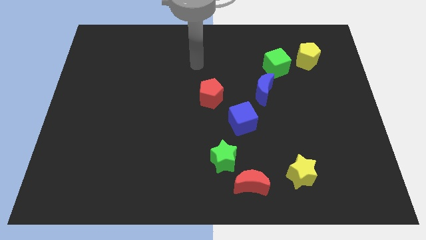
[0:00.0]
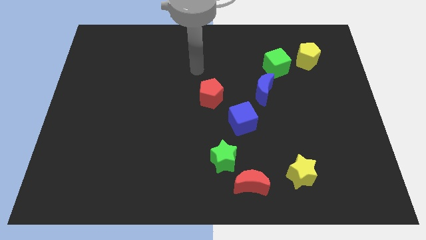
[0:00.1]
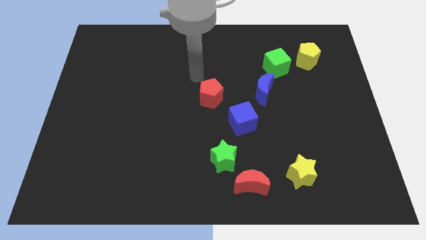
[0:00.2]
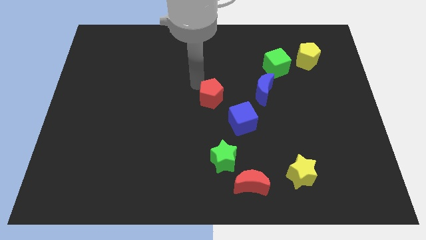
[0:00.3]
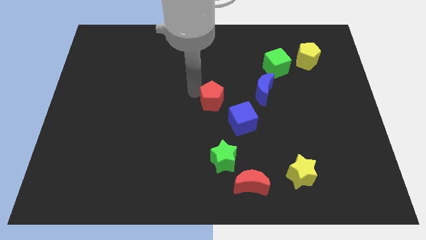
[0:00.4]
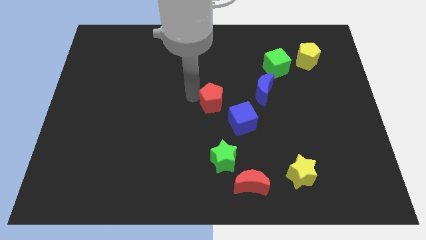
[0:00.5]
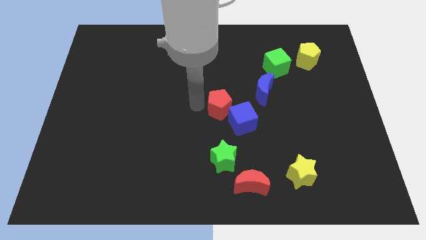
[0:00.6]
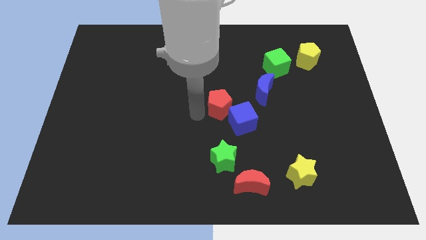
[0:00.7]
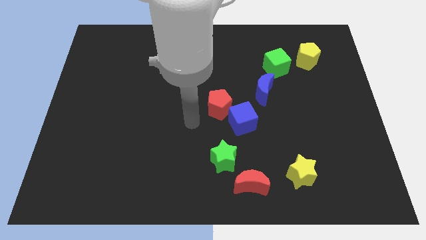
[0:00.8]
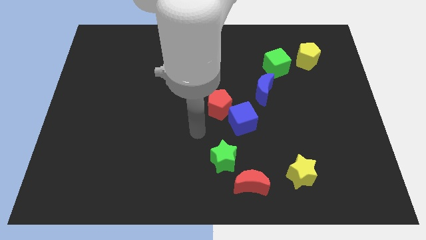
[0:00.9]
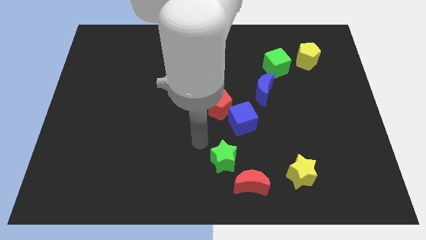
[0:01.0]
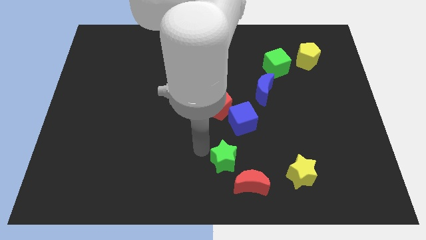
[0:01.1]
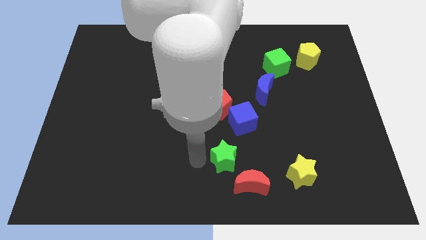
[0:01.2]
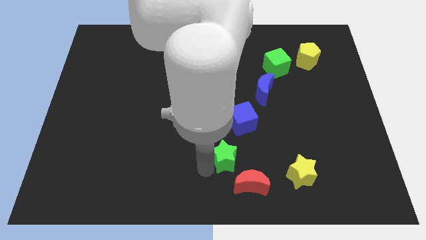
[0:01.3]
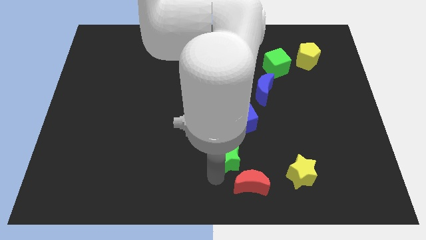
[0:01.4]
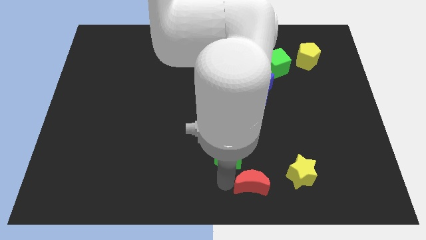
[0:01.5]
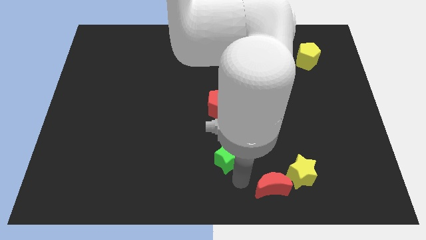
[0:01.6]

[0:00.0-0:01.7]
separate the green star from the red moon

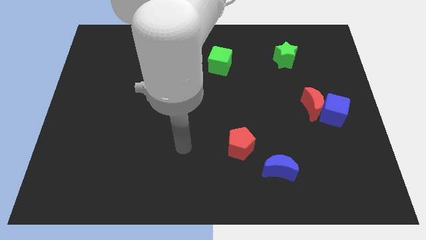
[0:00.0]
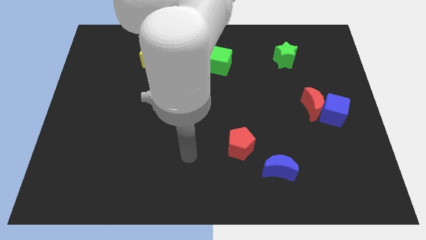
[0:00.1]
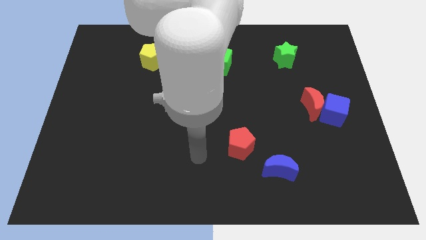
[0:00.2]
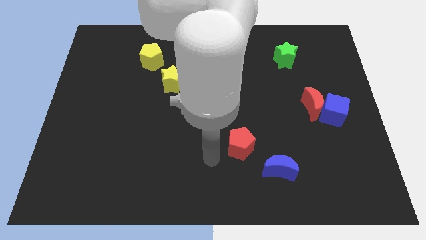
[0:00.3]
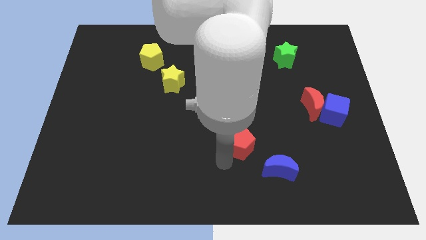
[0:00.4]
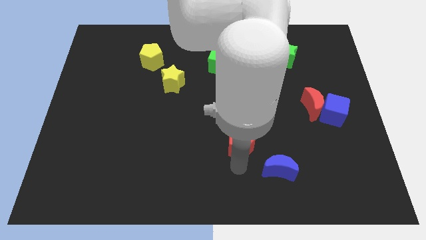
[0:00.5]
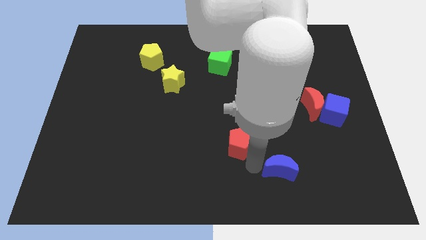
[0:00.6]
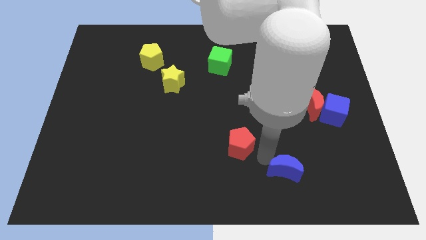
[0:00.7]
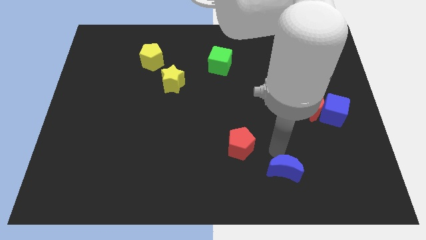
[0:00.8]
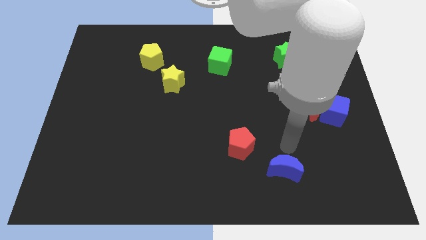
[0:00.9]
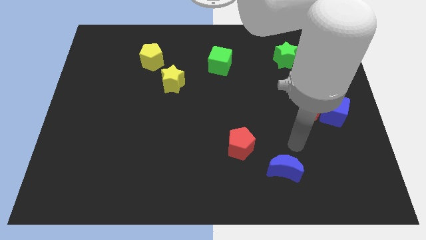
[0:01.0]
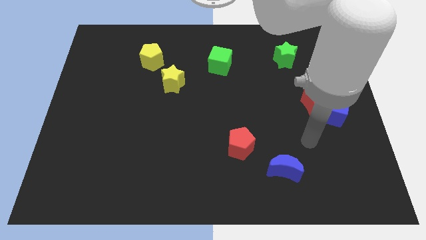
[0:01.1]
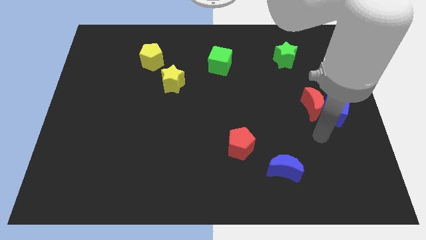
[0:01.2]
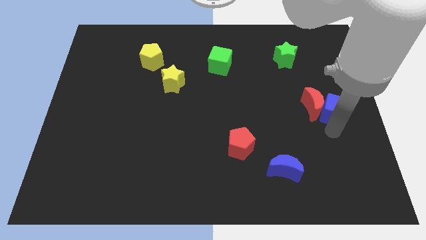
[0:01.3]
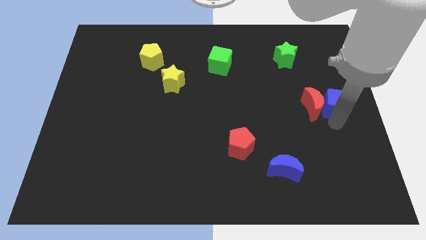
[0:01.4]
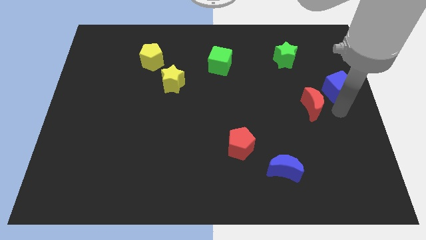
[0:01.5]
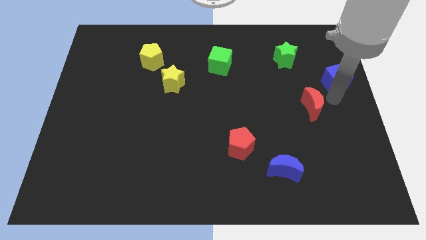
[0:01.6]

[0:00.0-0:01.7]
separate the red moon from the blue cube

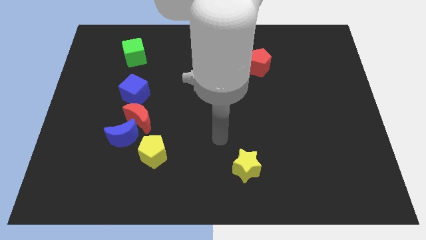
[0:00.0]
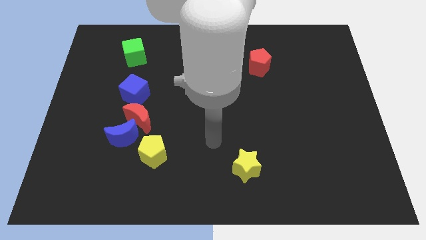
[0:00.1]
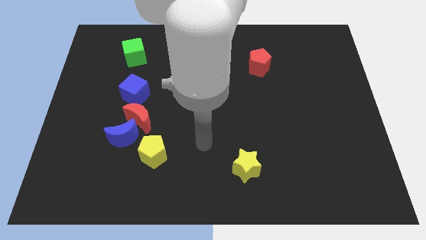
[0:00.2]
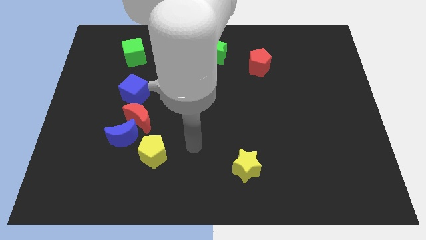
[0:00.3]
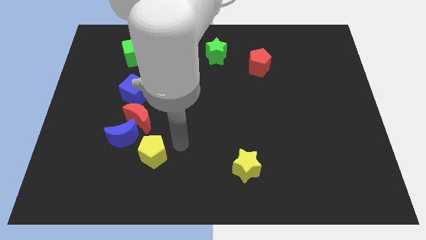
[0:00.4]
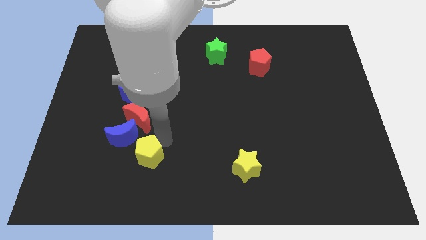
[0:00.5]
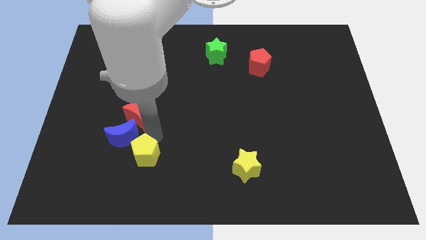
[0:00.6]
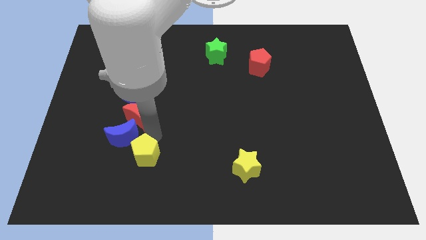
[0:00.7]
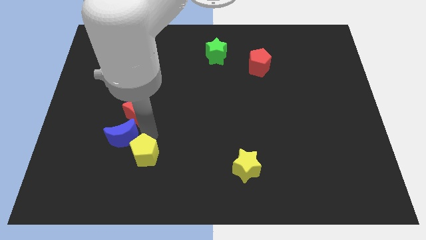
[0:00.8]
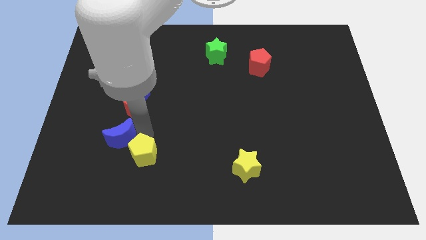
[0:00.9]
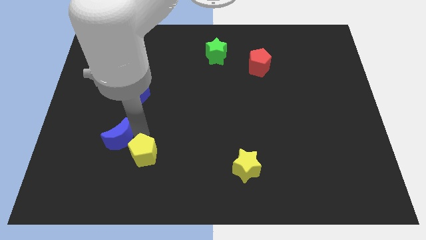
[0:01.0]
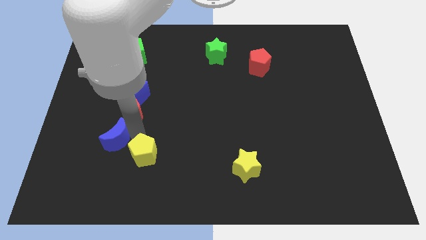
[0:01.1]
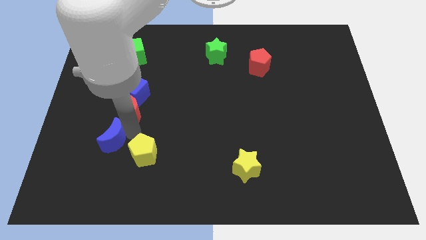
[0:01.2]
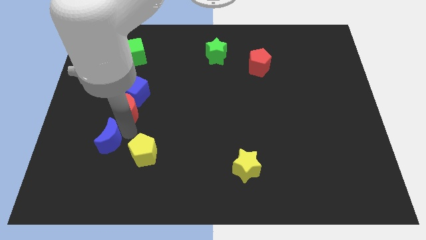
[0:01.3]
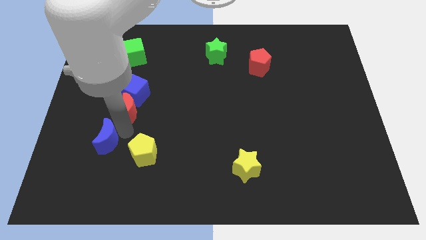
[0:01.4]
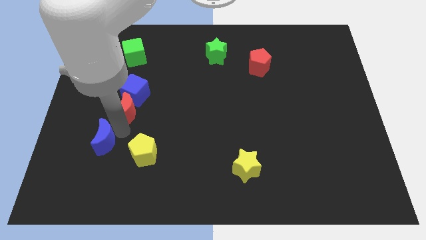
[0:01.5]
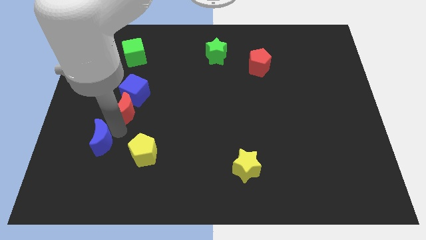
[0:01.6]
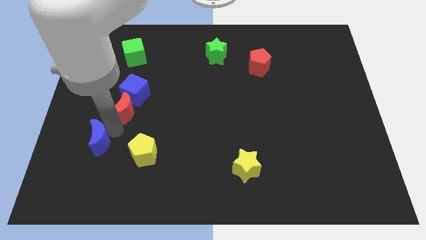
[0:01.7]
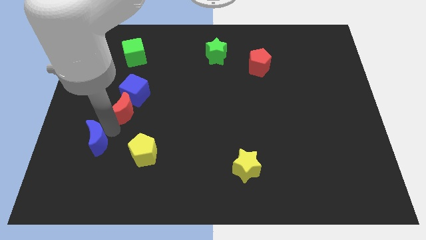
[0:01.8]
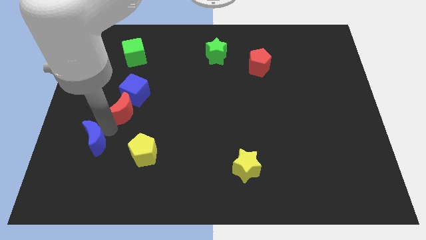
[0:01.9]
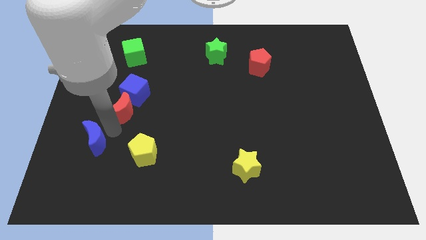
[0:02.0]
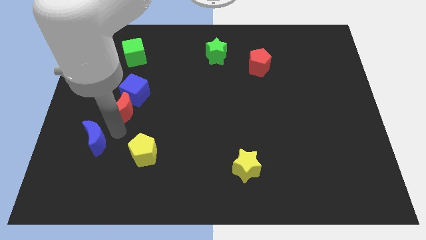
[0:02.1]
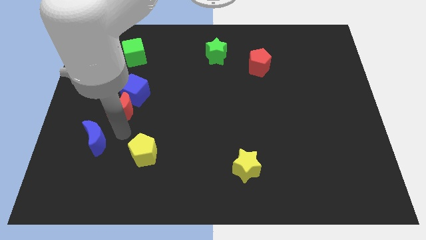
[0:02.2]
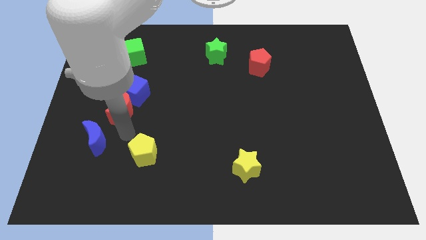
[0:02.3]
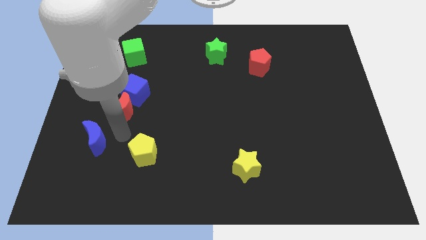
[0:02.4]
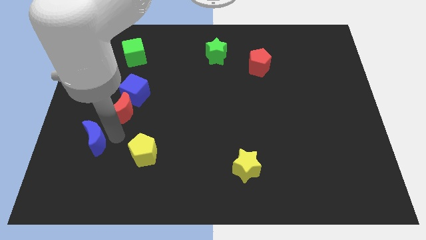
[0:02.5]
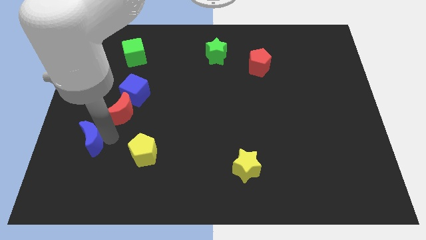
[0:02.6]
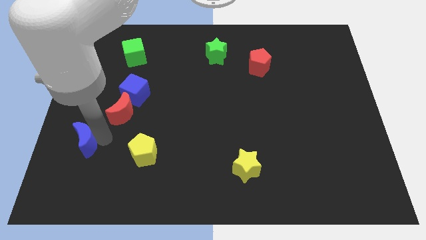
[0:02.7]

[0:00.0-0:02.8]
move the blue moon away from the red moon and yellow pentagon

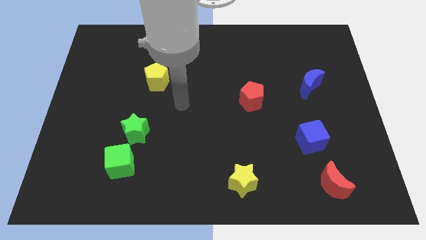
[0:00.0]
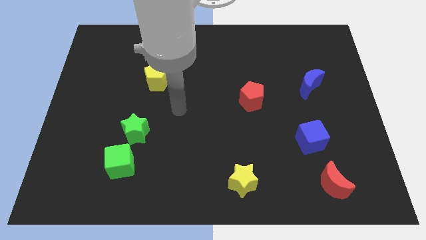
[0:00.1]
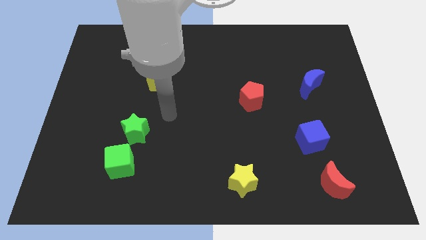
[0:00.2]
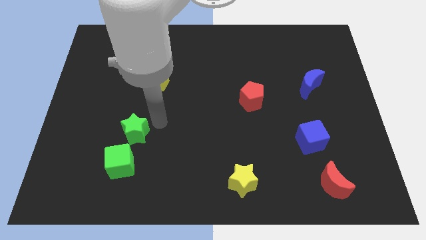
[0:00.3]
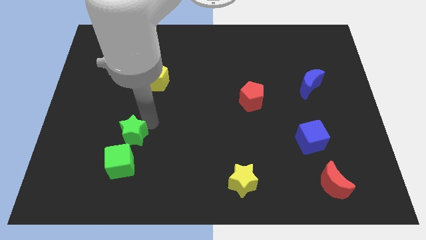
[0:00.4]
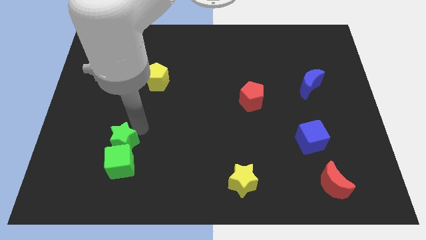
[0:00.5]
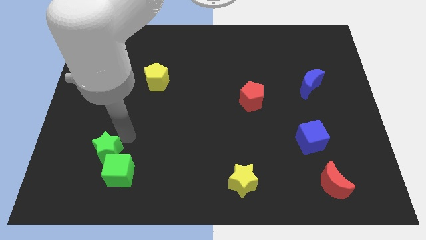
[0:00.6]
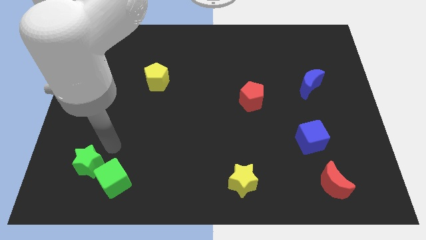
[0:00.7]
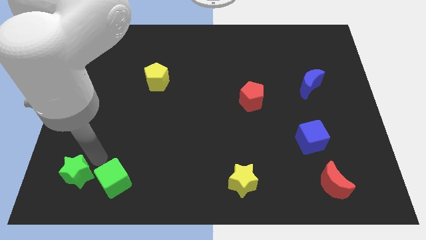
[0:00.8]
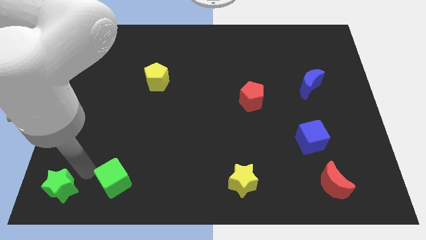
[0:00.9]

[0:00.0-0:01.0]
pull the green cube apart from the green star

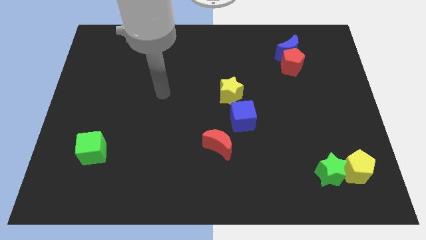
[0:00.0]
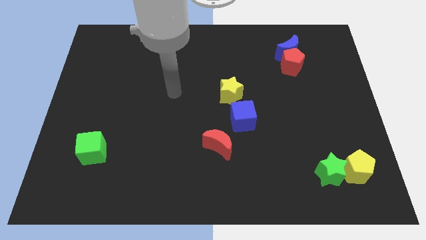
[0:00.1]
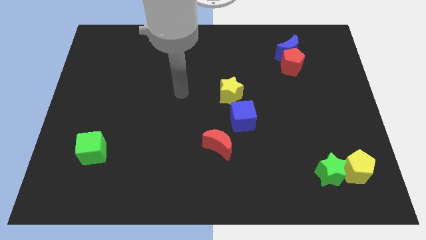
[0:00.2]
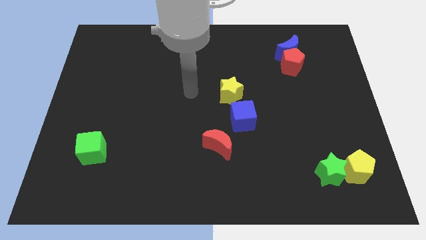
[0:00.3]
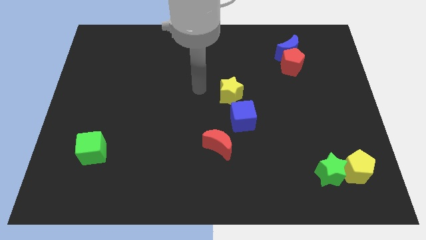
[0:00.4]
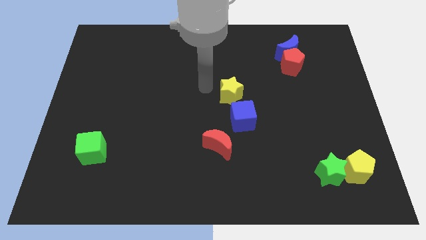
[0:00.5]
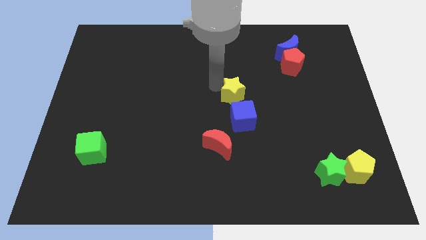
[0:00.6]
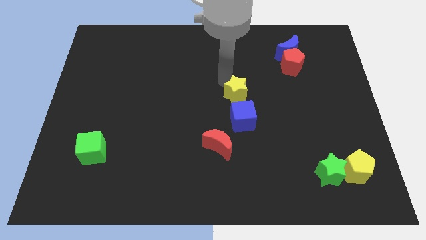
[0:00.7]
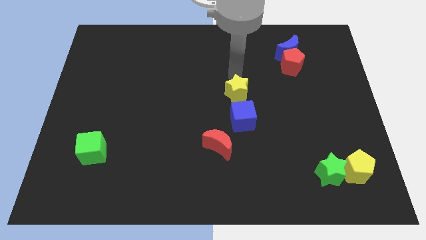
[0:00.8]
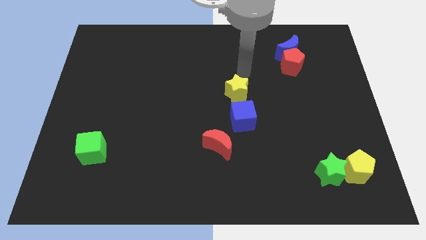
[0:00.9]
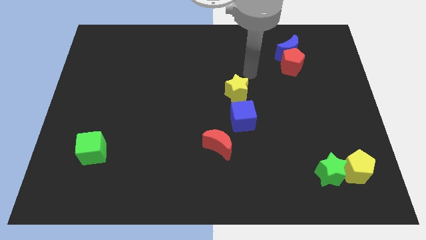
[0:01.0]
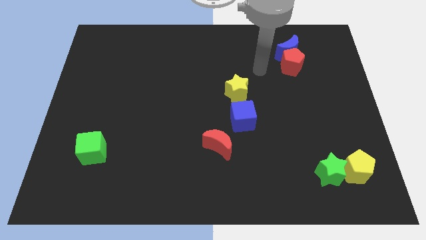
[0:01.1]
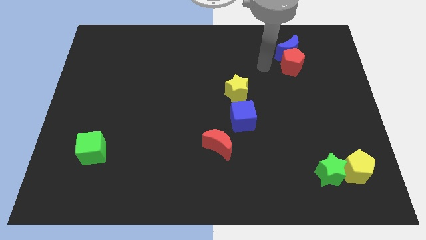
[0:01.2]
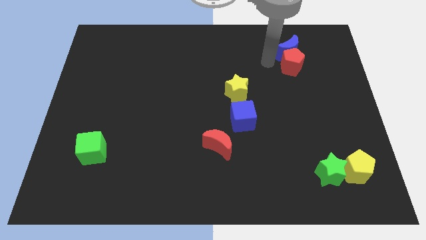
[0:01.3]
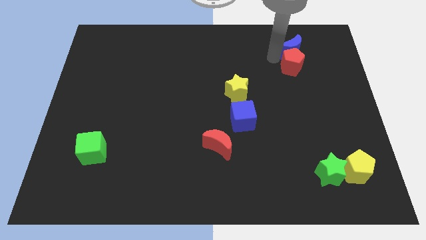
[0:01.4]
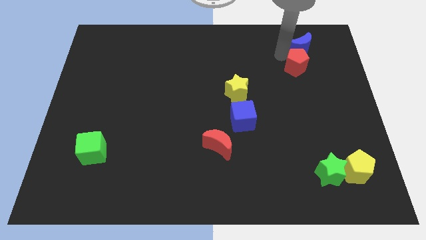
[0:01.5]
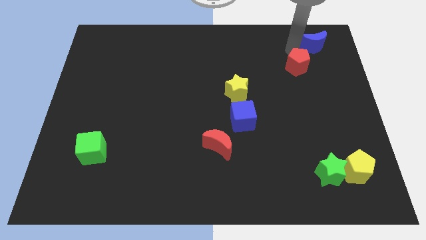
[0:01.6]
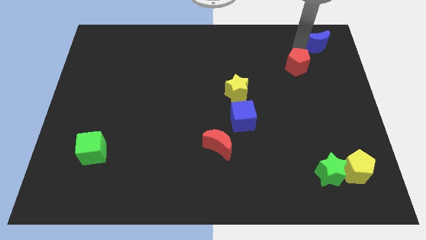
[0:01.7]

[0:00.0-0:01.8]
separate the red pentagon from the blue moon

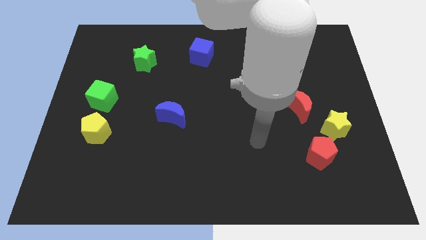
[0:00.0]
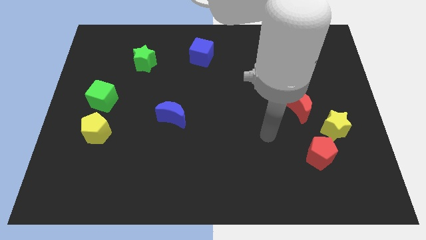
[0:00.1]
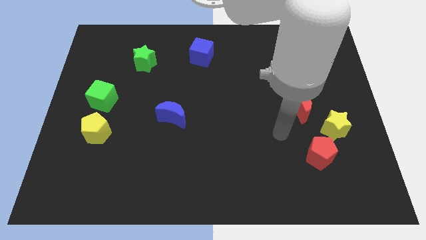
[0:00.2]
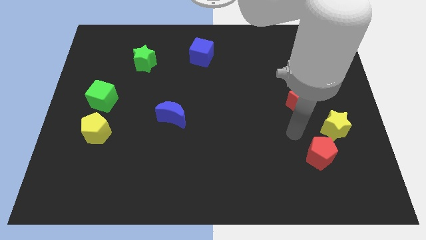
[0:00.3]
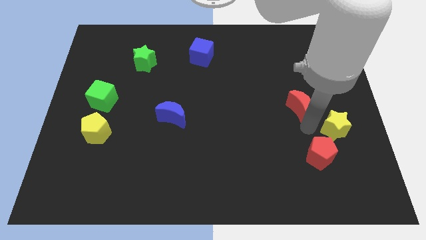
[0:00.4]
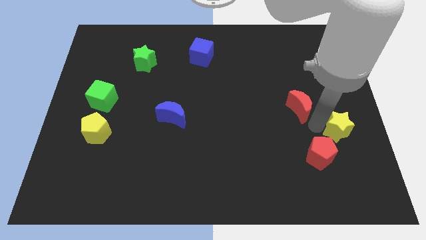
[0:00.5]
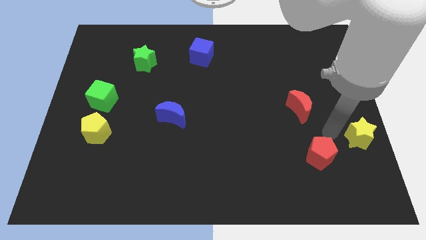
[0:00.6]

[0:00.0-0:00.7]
move the red pentagon away from the yellow star
